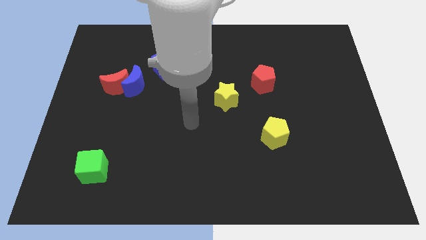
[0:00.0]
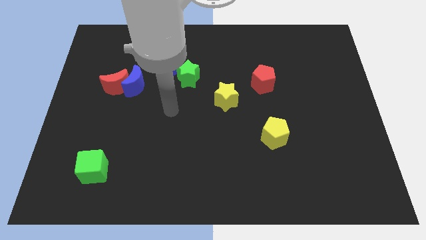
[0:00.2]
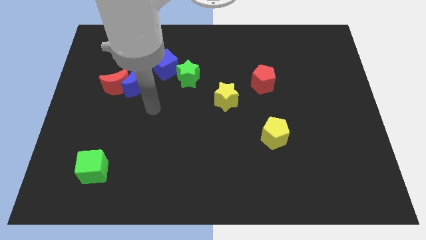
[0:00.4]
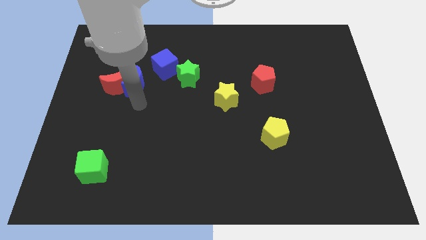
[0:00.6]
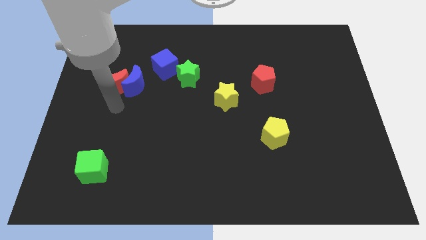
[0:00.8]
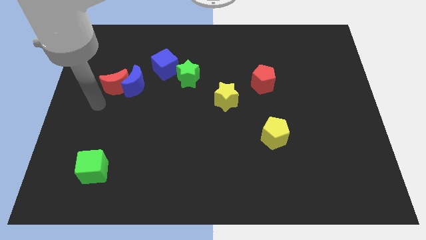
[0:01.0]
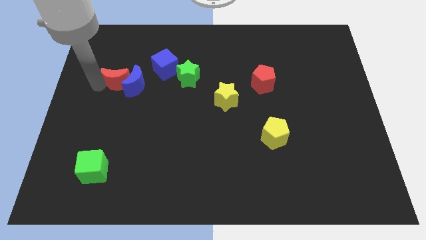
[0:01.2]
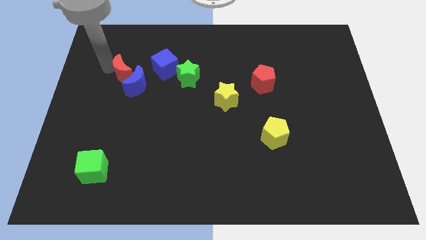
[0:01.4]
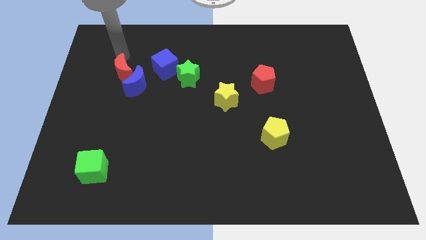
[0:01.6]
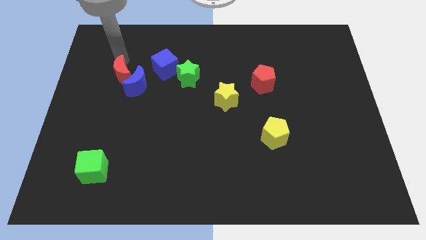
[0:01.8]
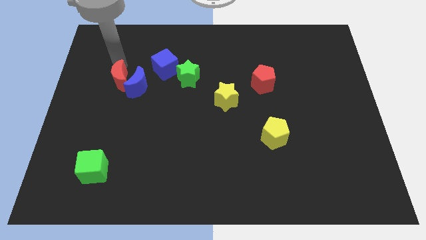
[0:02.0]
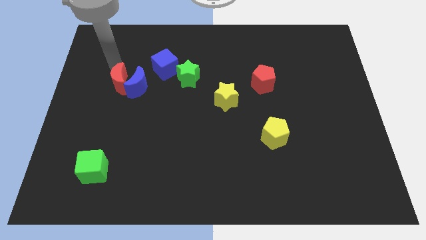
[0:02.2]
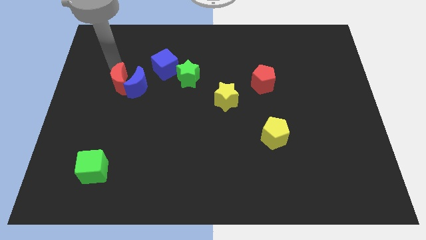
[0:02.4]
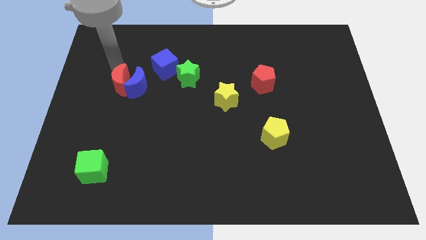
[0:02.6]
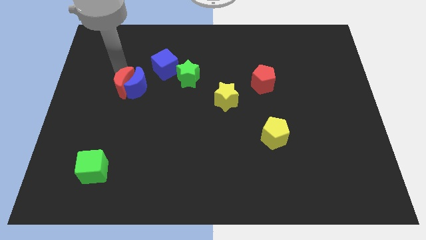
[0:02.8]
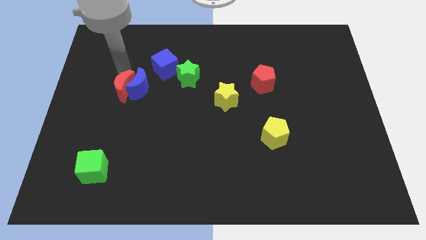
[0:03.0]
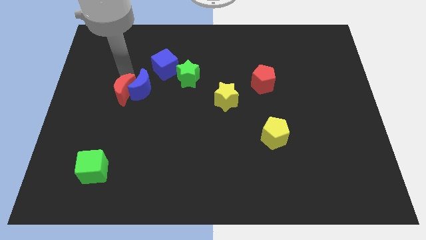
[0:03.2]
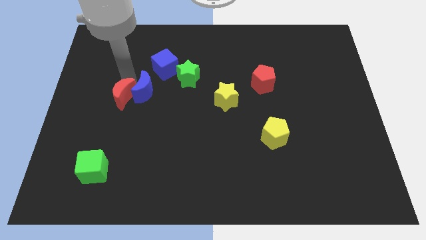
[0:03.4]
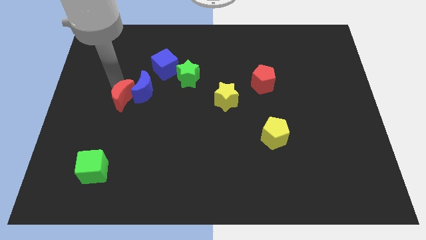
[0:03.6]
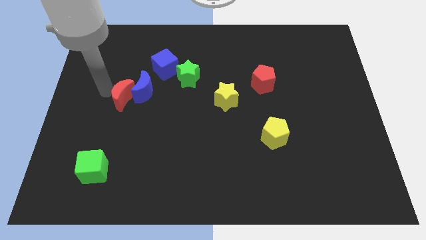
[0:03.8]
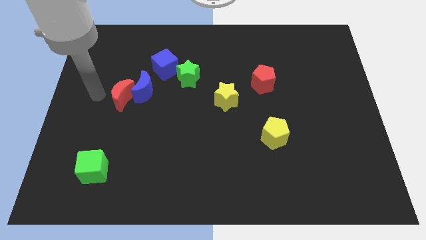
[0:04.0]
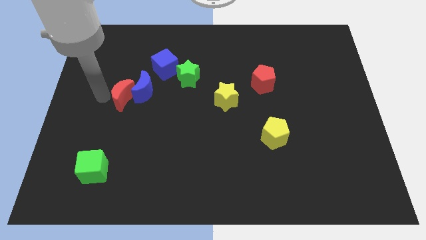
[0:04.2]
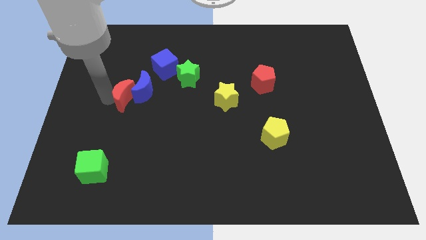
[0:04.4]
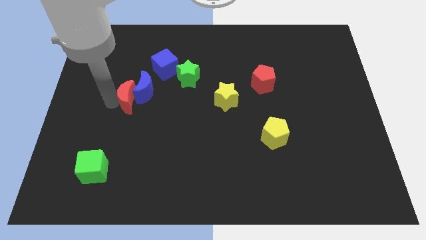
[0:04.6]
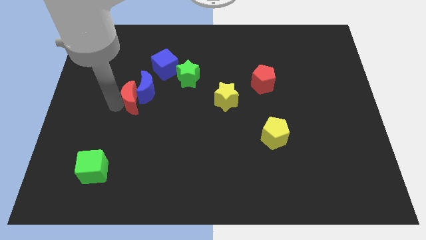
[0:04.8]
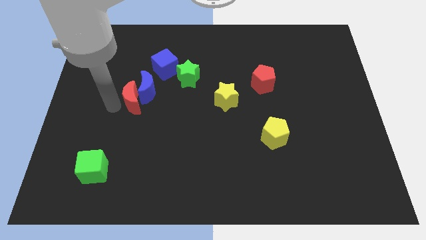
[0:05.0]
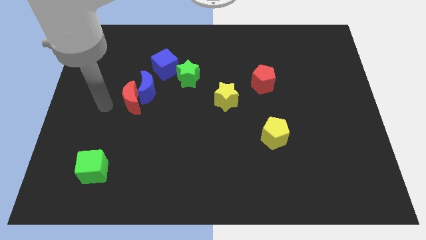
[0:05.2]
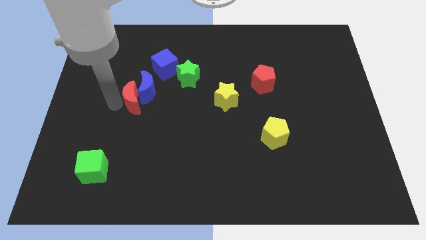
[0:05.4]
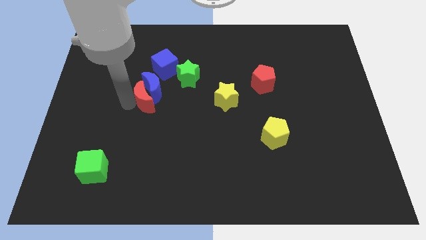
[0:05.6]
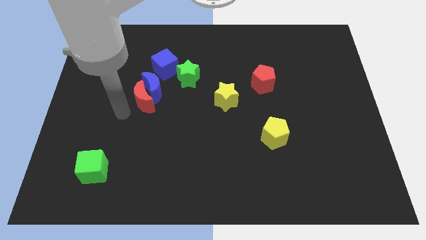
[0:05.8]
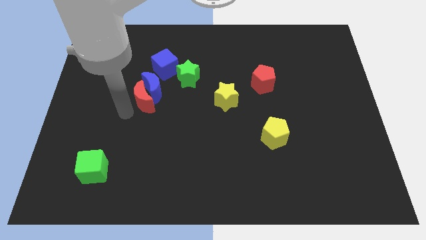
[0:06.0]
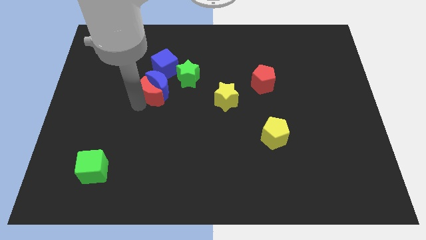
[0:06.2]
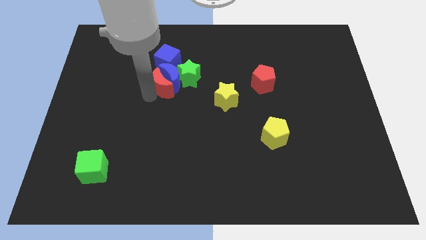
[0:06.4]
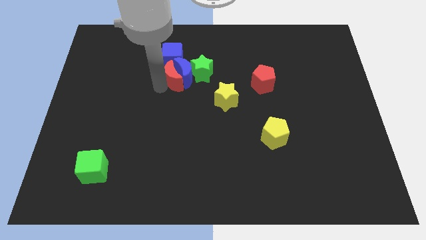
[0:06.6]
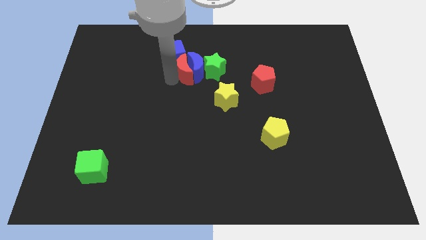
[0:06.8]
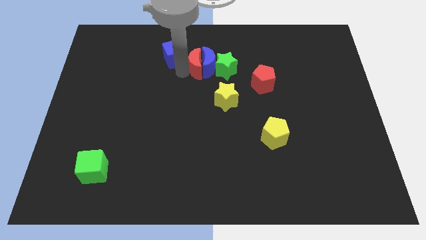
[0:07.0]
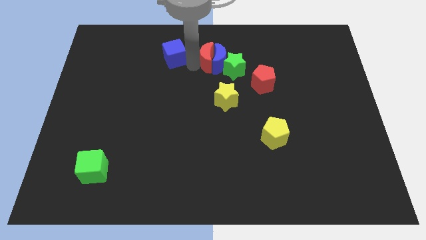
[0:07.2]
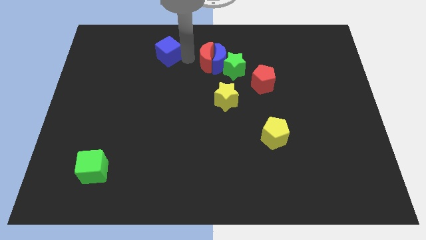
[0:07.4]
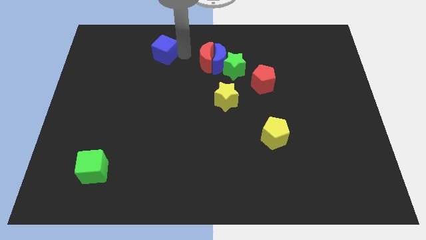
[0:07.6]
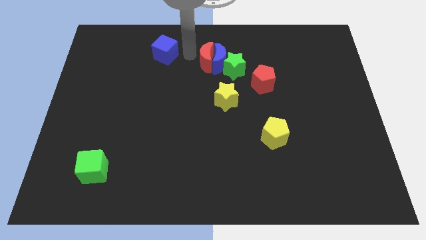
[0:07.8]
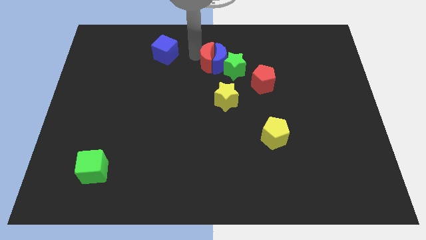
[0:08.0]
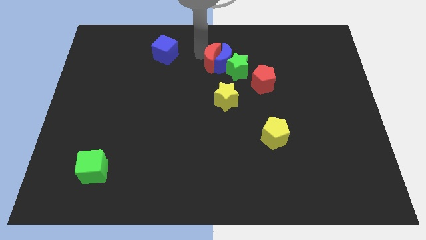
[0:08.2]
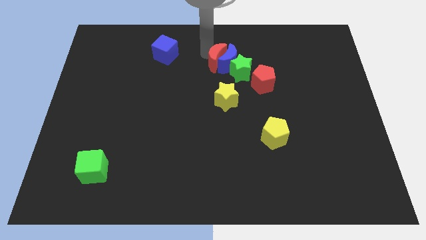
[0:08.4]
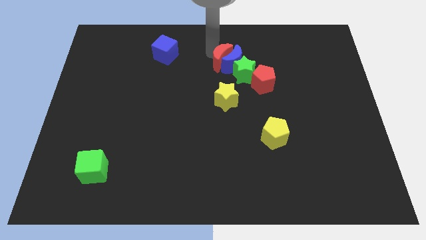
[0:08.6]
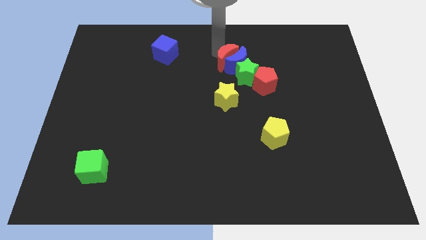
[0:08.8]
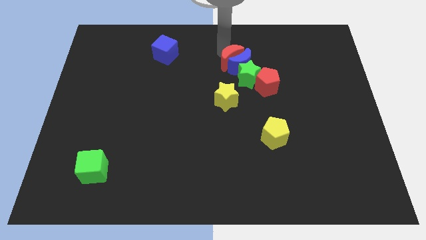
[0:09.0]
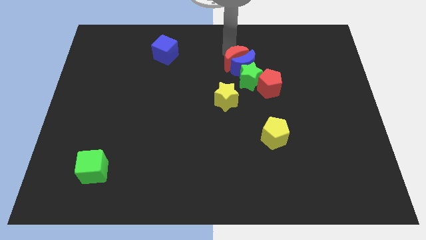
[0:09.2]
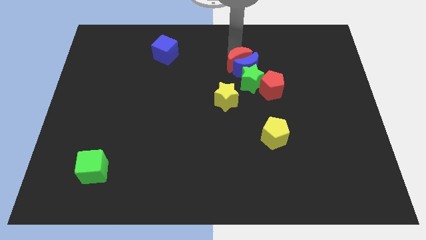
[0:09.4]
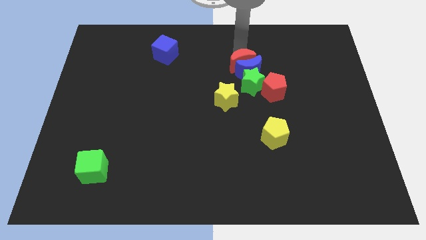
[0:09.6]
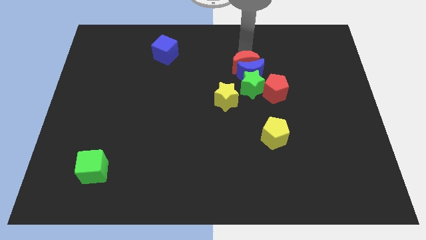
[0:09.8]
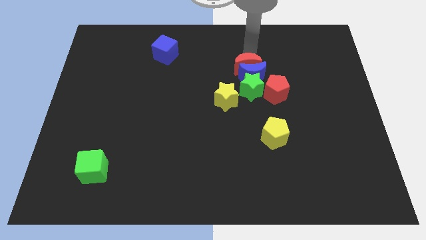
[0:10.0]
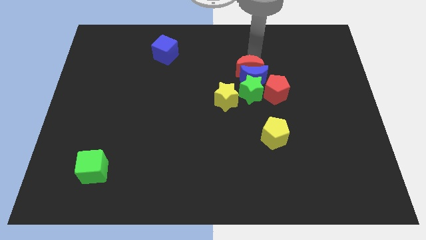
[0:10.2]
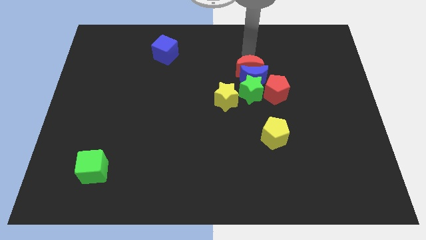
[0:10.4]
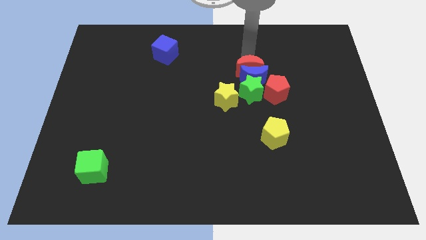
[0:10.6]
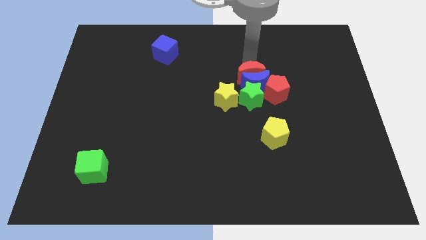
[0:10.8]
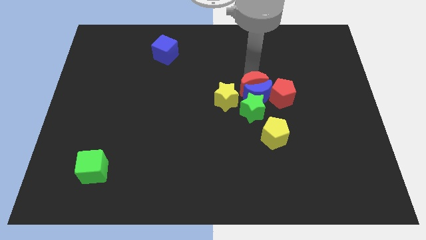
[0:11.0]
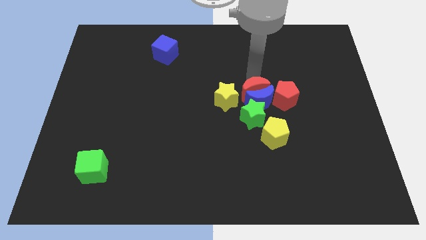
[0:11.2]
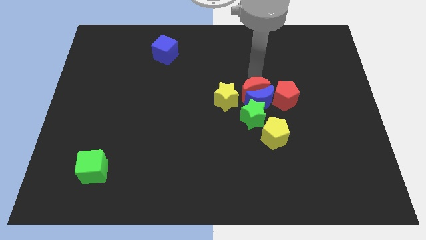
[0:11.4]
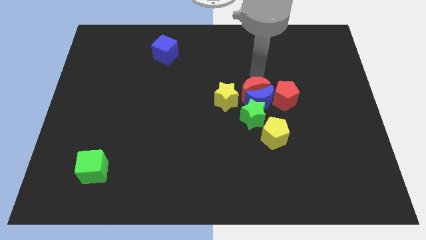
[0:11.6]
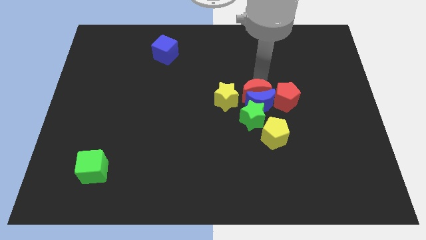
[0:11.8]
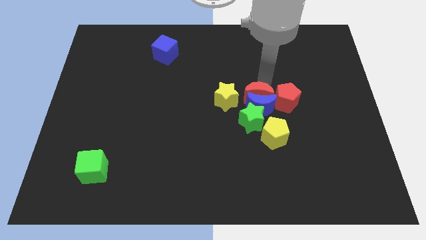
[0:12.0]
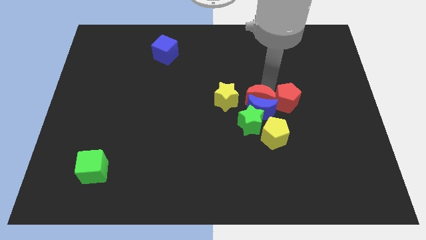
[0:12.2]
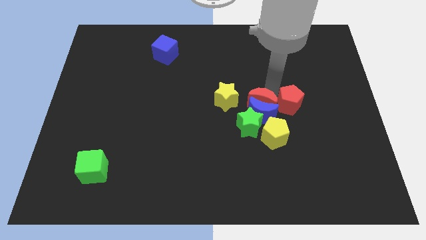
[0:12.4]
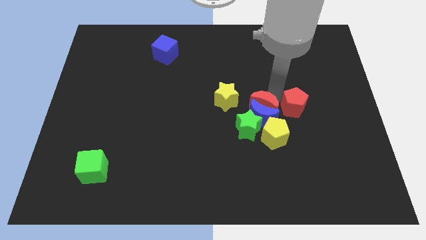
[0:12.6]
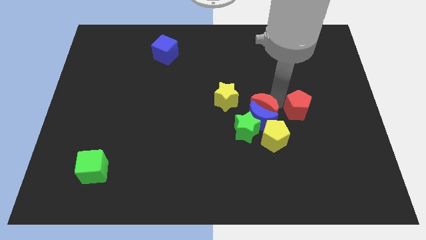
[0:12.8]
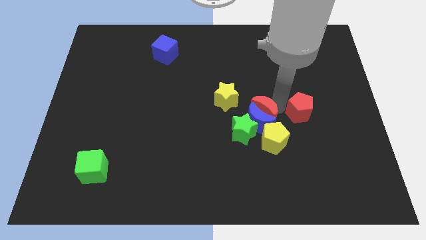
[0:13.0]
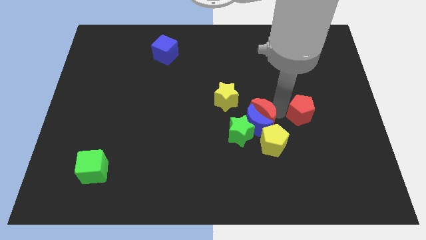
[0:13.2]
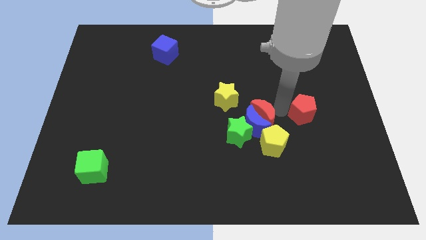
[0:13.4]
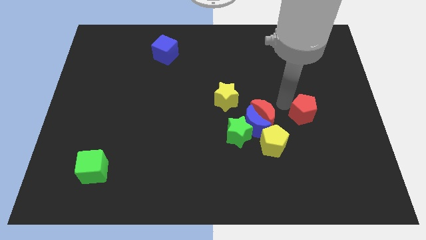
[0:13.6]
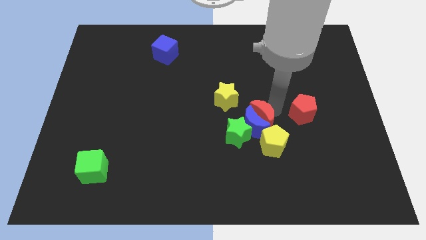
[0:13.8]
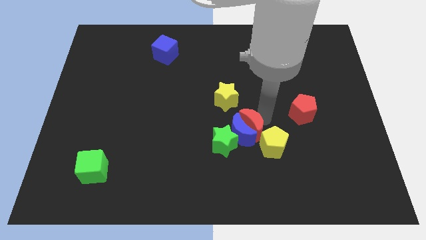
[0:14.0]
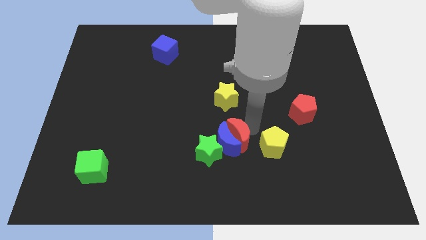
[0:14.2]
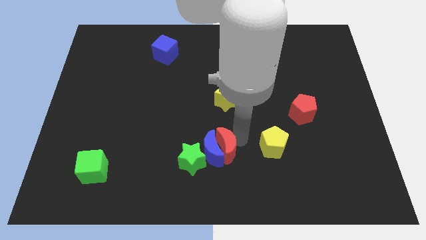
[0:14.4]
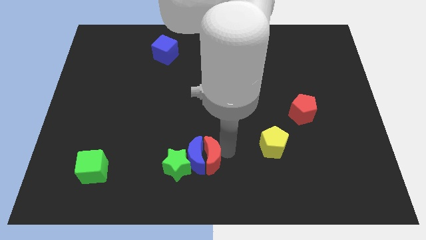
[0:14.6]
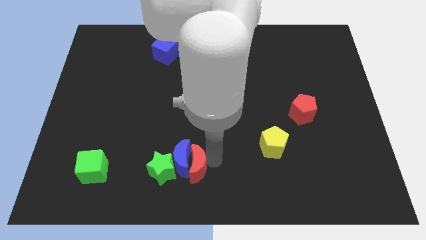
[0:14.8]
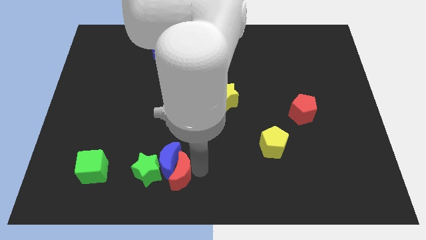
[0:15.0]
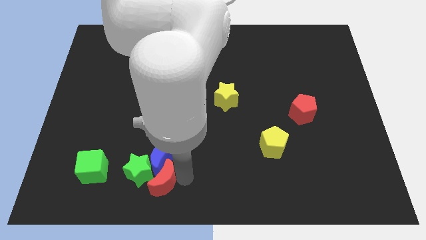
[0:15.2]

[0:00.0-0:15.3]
put the red moon close to the green star

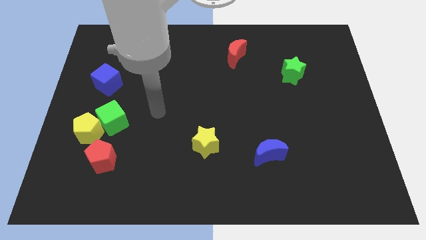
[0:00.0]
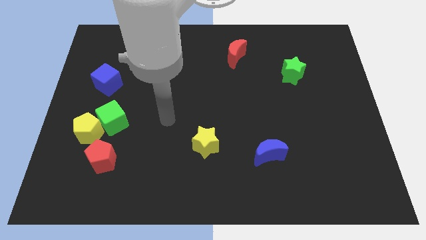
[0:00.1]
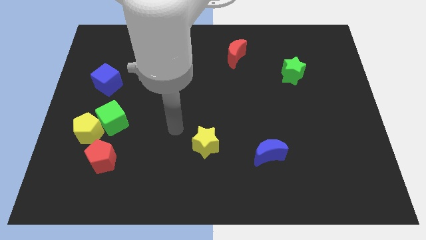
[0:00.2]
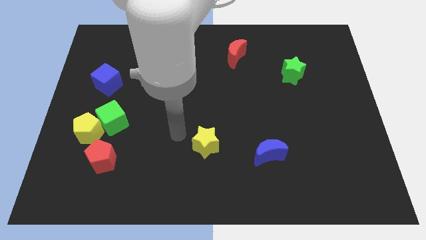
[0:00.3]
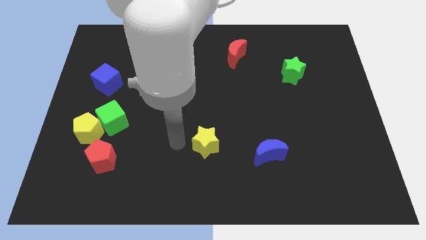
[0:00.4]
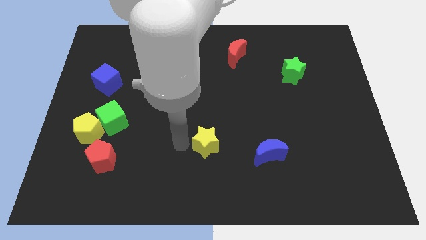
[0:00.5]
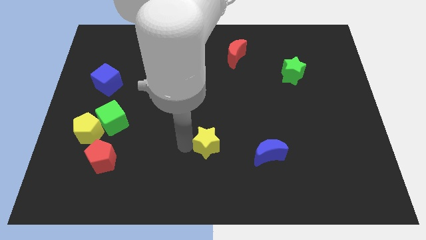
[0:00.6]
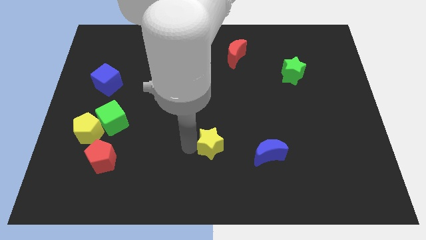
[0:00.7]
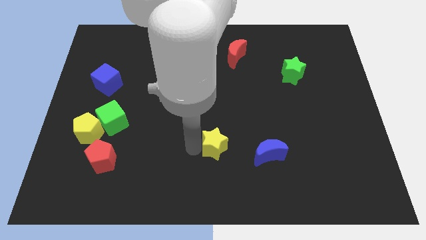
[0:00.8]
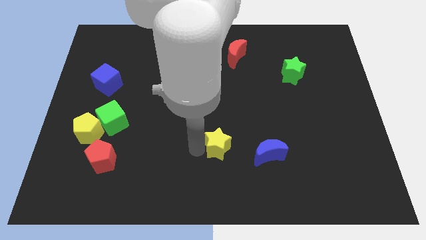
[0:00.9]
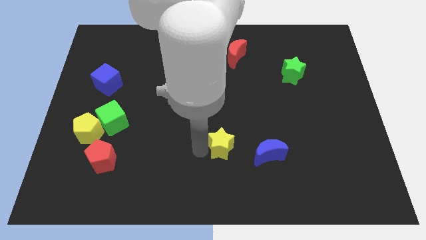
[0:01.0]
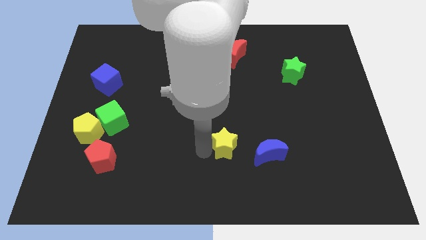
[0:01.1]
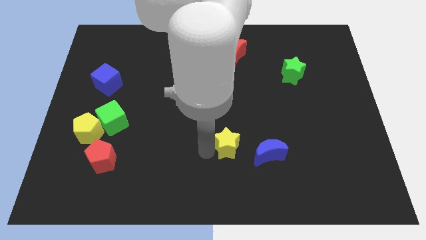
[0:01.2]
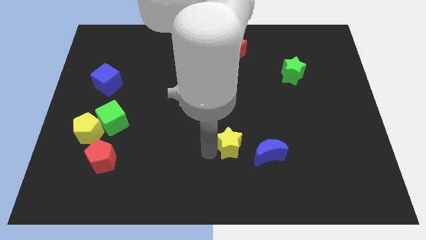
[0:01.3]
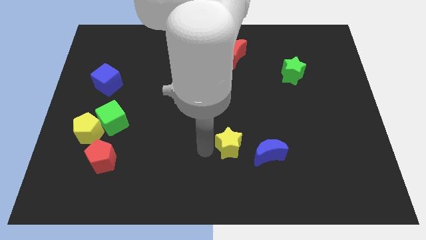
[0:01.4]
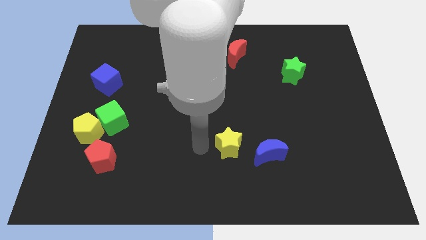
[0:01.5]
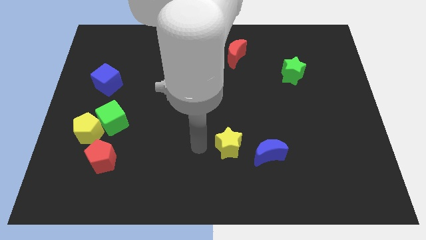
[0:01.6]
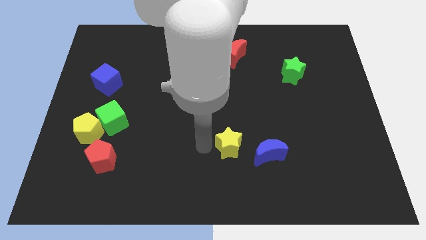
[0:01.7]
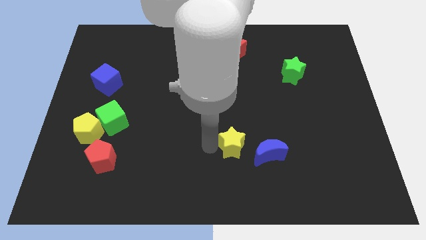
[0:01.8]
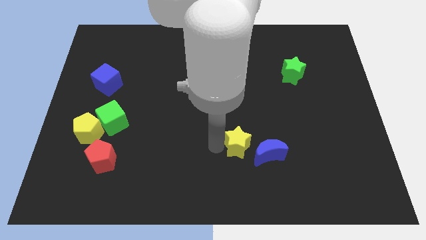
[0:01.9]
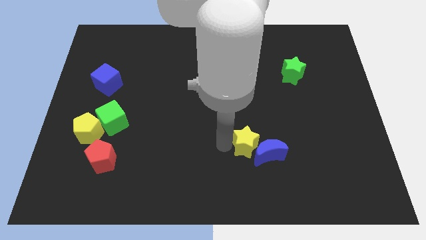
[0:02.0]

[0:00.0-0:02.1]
move the yellow star to the blue moon
